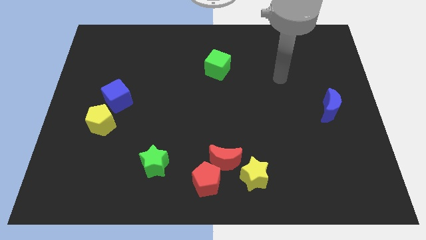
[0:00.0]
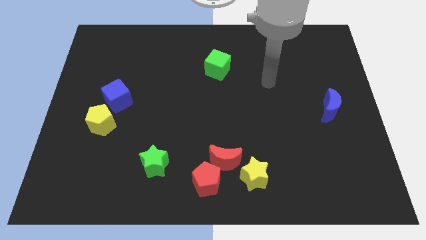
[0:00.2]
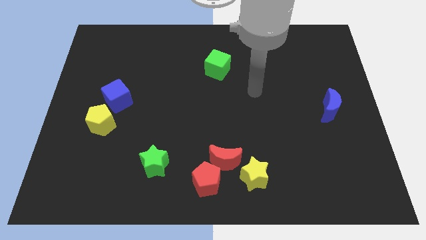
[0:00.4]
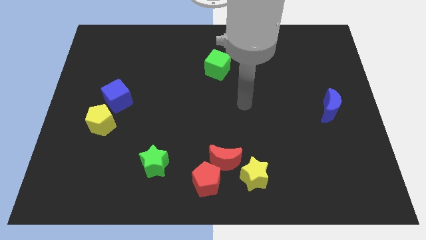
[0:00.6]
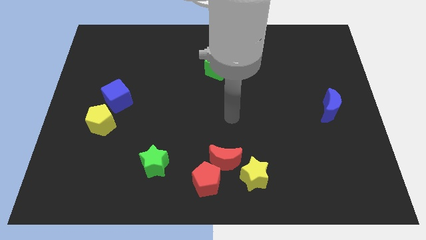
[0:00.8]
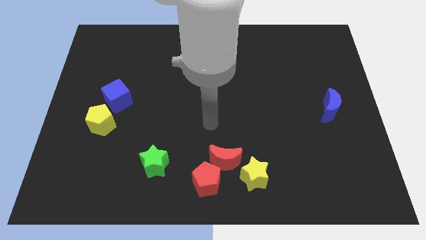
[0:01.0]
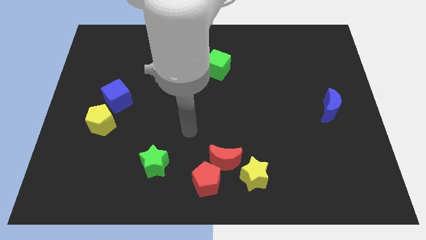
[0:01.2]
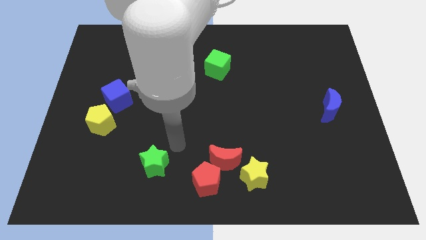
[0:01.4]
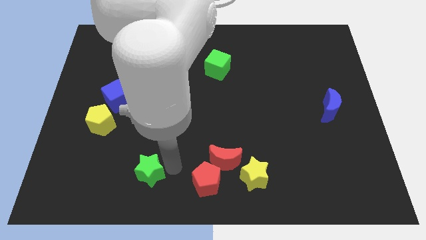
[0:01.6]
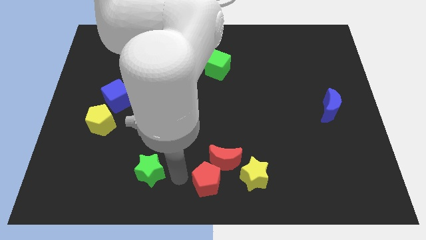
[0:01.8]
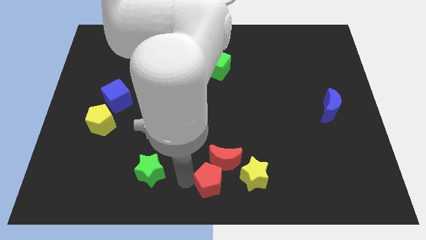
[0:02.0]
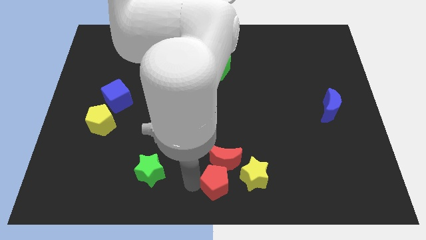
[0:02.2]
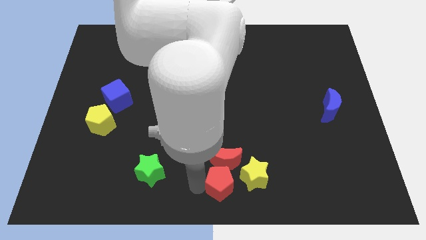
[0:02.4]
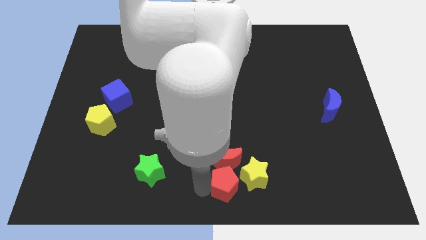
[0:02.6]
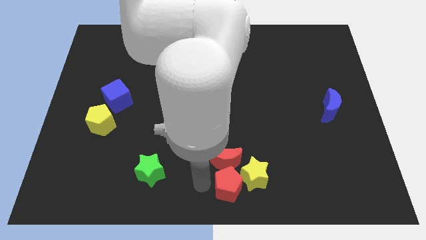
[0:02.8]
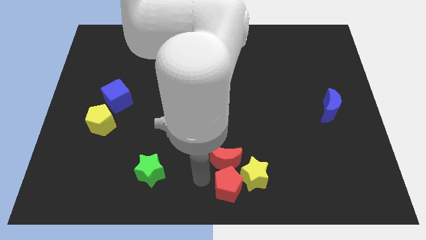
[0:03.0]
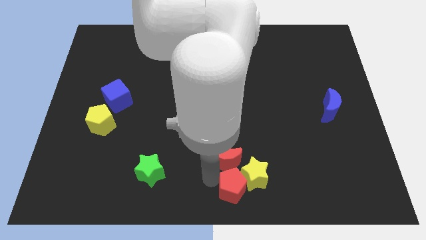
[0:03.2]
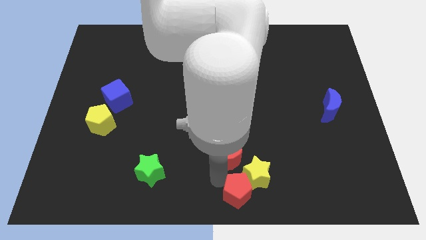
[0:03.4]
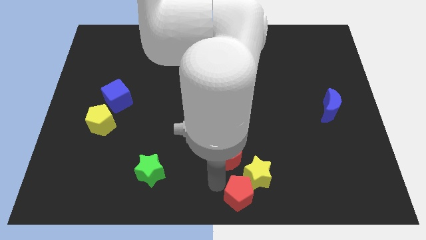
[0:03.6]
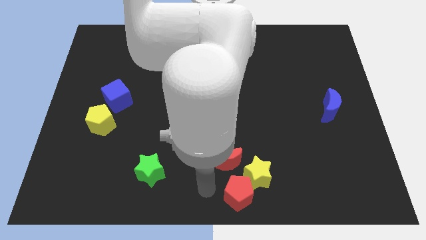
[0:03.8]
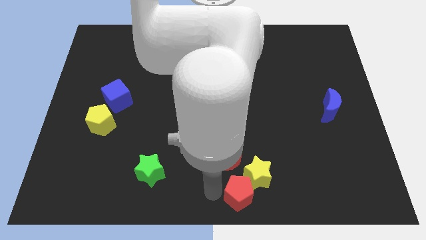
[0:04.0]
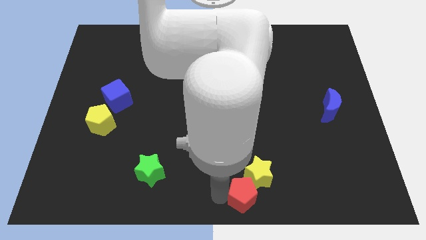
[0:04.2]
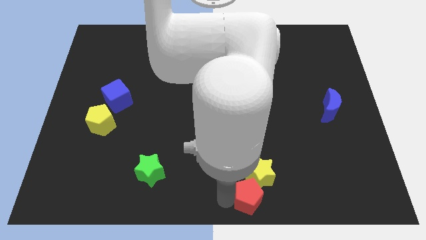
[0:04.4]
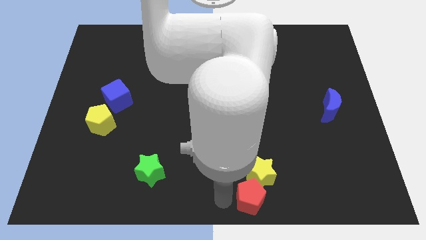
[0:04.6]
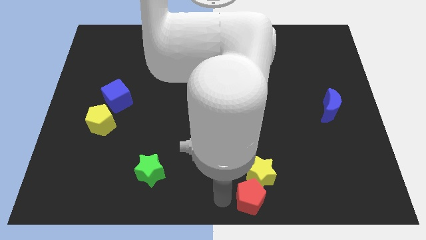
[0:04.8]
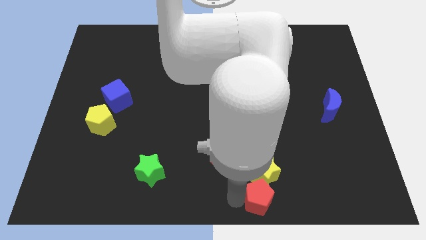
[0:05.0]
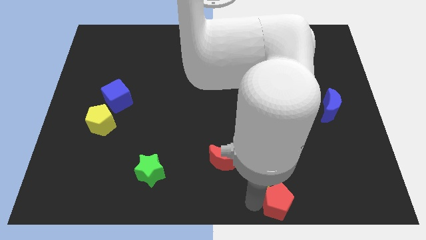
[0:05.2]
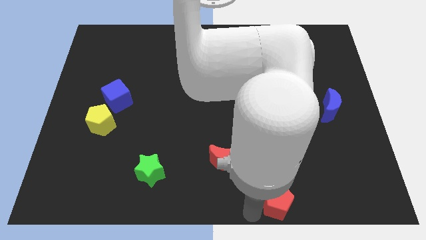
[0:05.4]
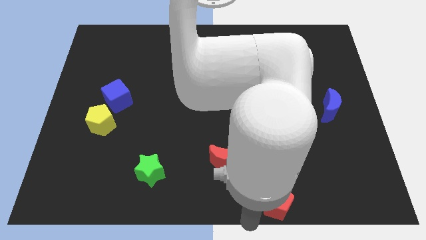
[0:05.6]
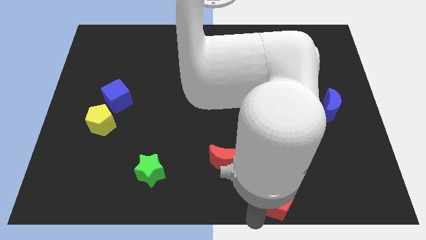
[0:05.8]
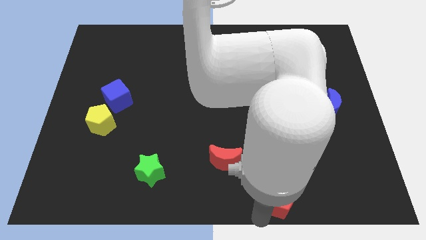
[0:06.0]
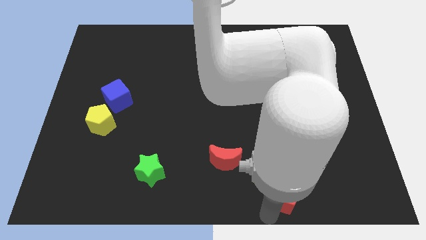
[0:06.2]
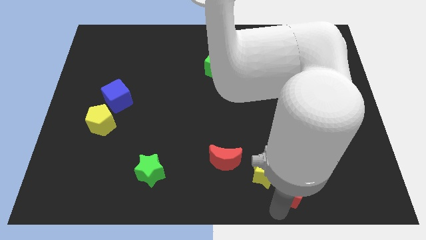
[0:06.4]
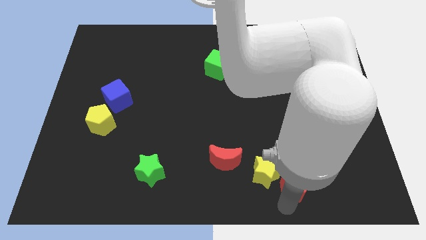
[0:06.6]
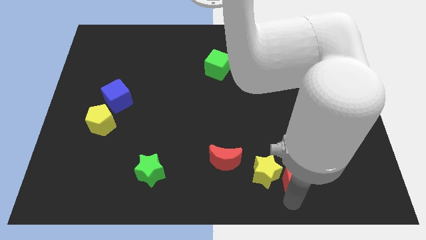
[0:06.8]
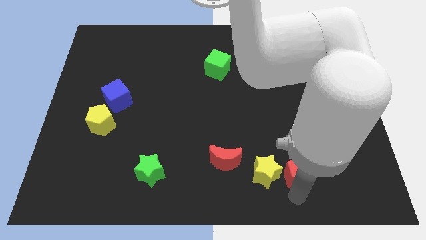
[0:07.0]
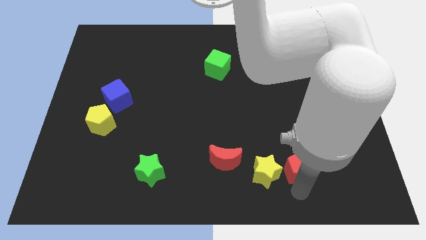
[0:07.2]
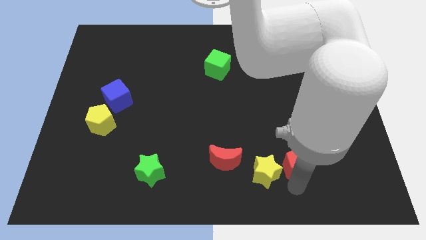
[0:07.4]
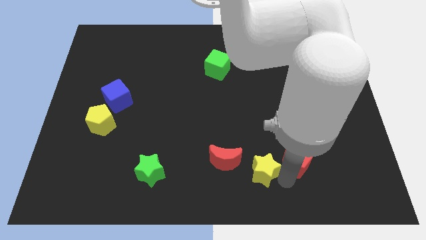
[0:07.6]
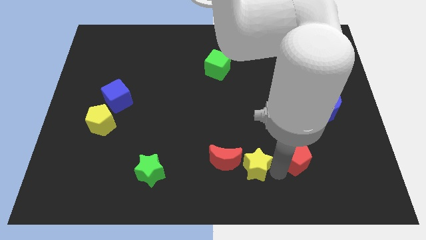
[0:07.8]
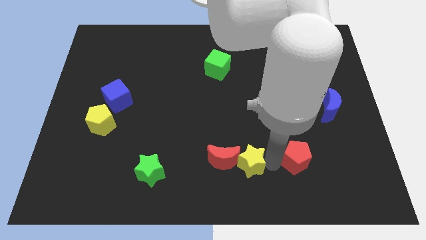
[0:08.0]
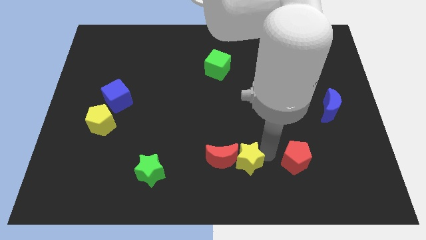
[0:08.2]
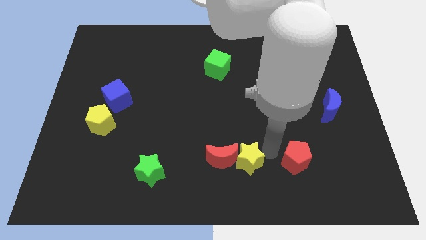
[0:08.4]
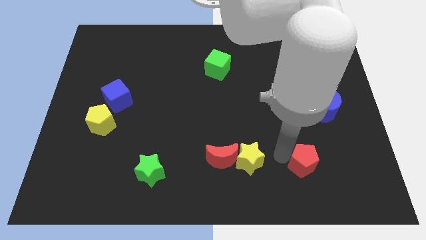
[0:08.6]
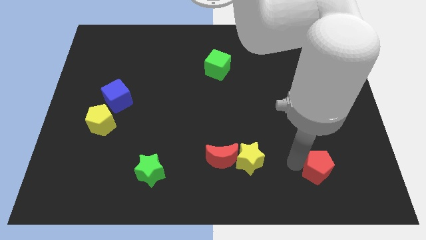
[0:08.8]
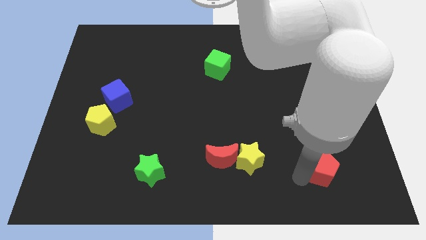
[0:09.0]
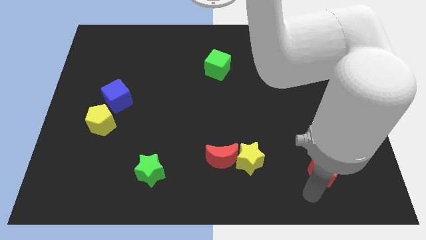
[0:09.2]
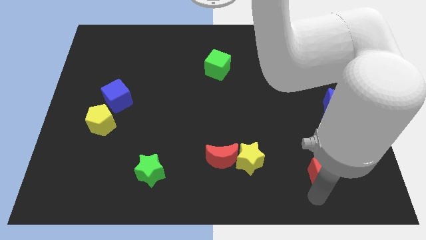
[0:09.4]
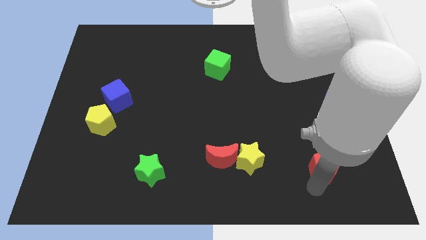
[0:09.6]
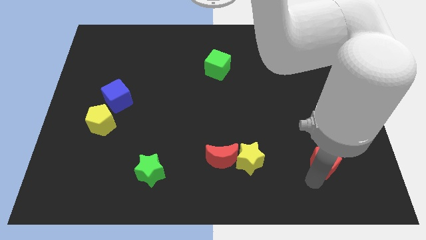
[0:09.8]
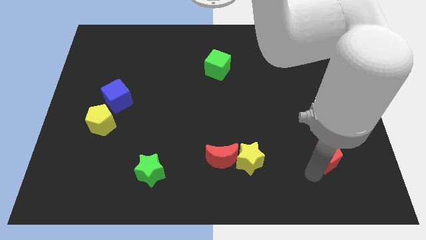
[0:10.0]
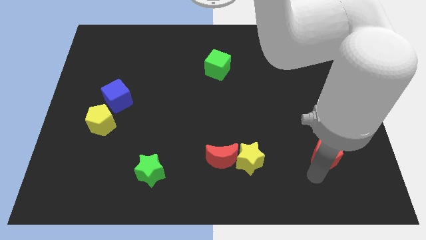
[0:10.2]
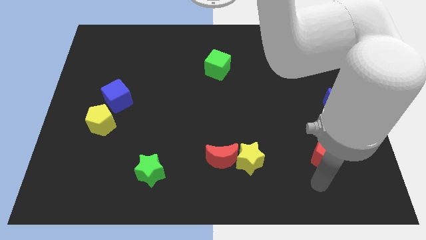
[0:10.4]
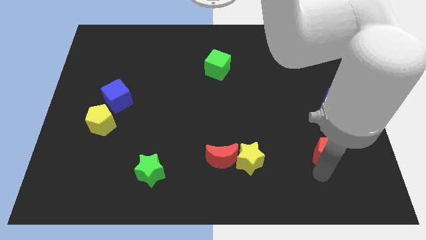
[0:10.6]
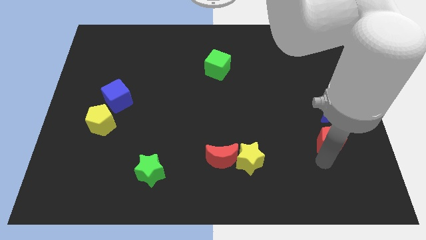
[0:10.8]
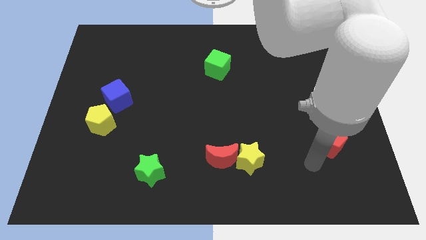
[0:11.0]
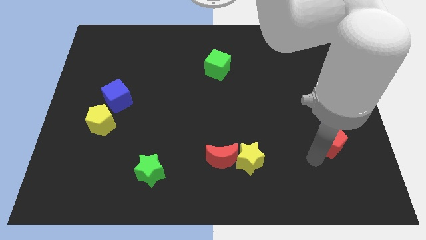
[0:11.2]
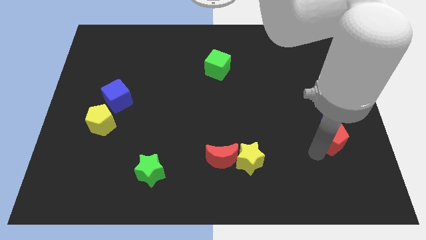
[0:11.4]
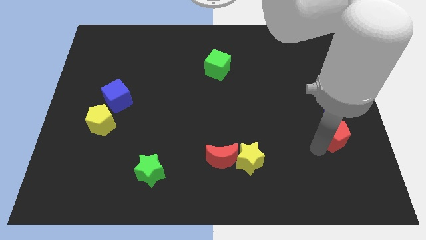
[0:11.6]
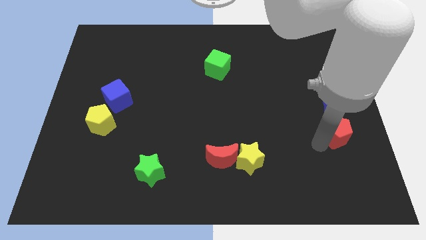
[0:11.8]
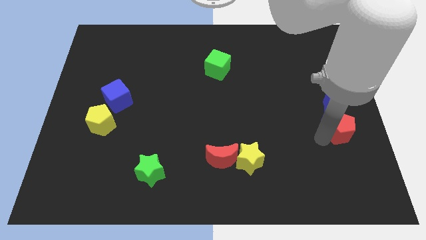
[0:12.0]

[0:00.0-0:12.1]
move the red pentagon to the right side

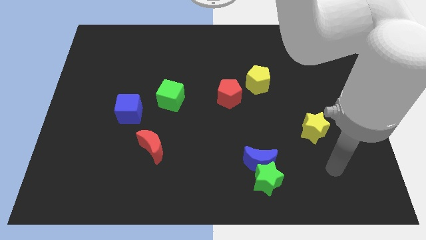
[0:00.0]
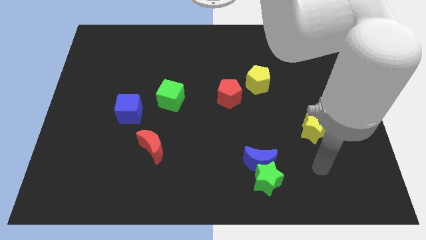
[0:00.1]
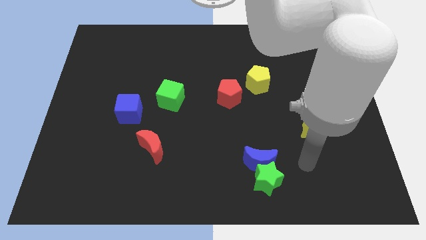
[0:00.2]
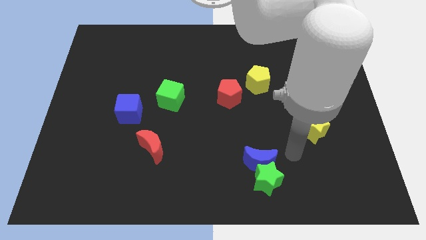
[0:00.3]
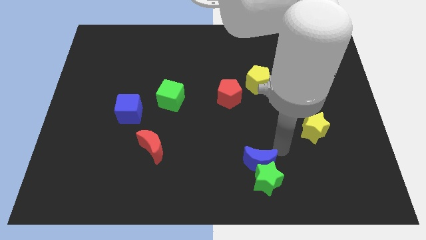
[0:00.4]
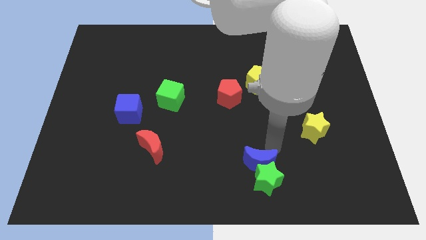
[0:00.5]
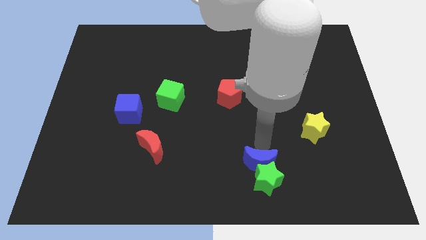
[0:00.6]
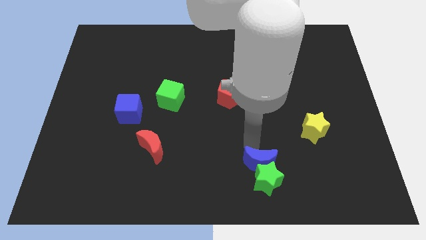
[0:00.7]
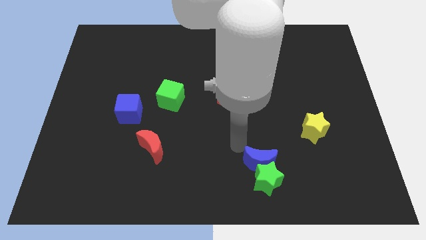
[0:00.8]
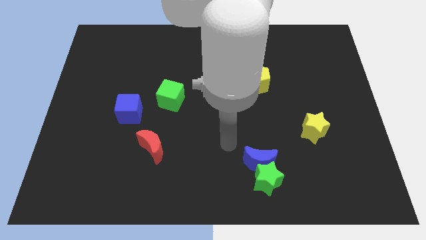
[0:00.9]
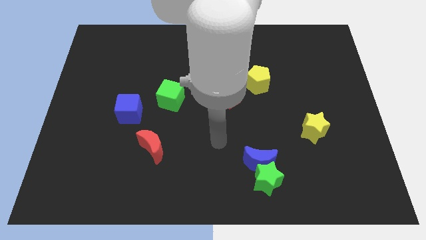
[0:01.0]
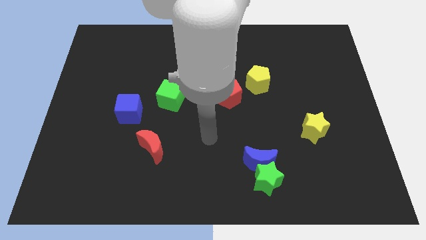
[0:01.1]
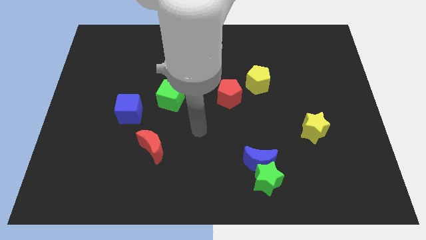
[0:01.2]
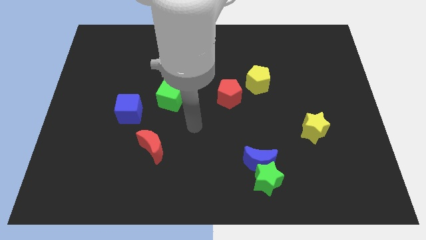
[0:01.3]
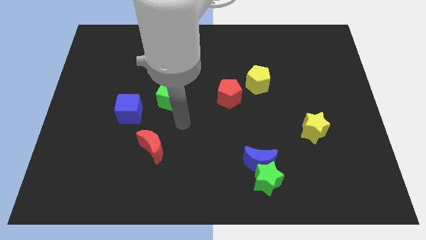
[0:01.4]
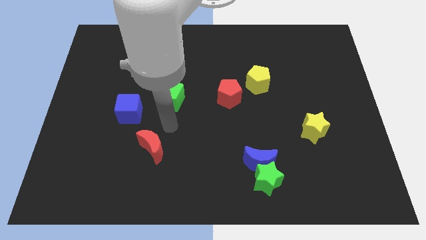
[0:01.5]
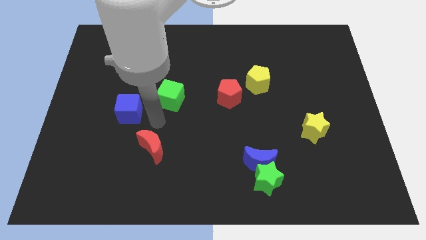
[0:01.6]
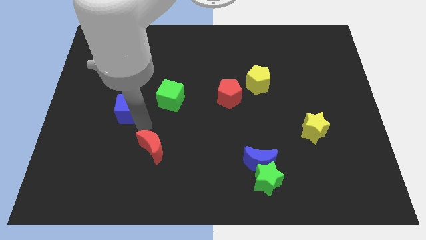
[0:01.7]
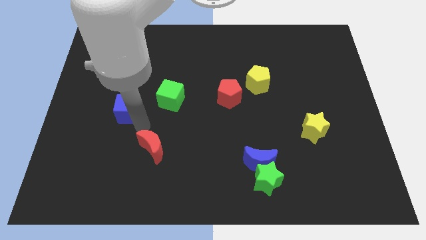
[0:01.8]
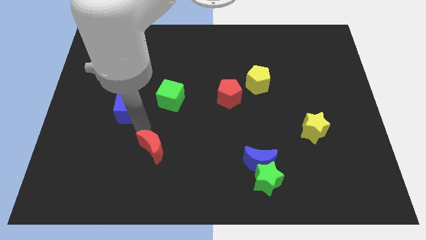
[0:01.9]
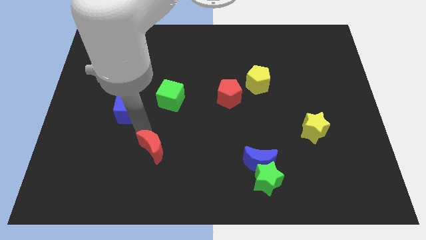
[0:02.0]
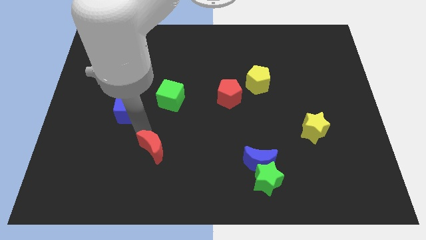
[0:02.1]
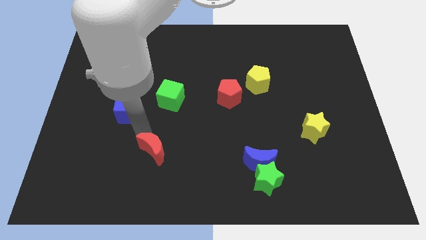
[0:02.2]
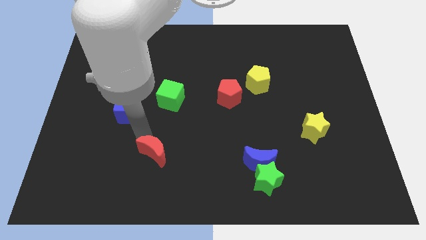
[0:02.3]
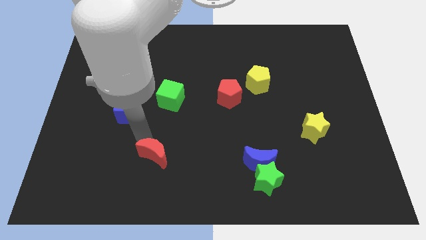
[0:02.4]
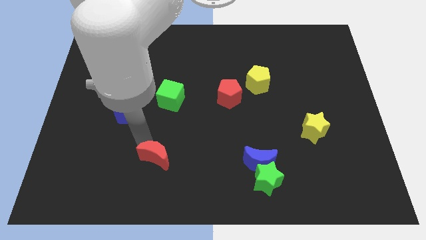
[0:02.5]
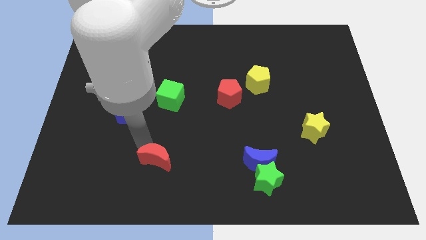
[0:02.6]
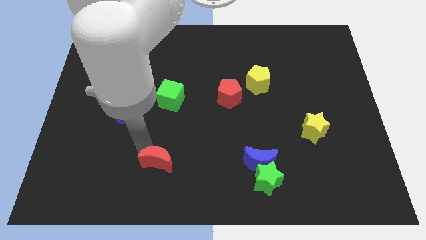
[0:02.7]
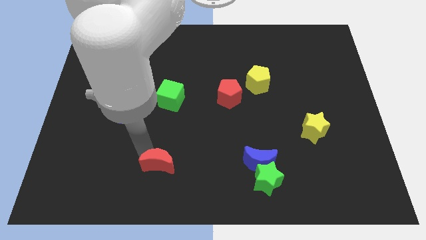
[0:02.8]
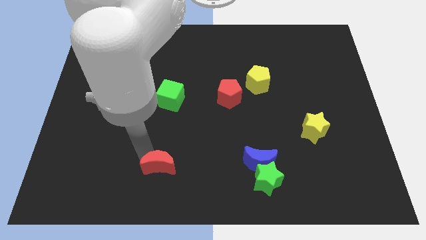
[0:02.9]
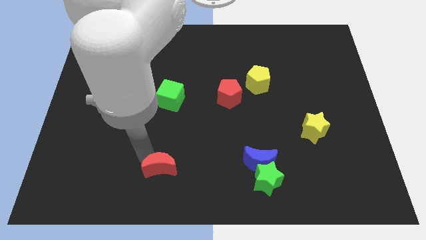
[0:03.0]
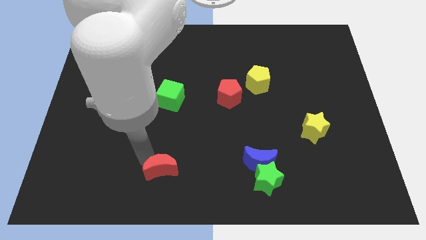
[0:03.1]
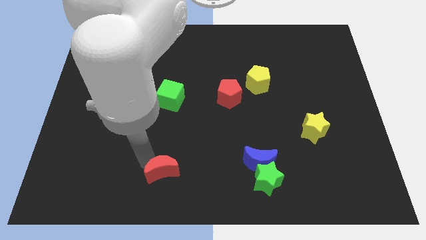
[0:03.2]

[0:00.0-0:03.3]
push the red moon to the bottom side
